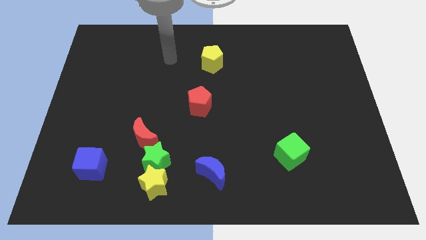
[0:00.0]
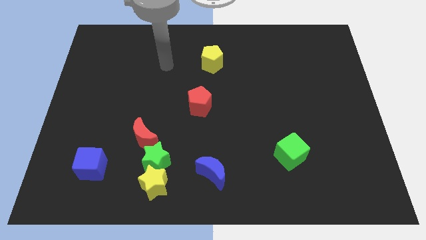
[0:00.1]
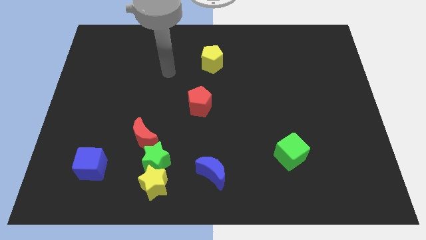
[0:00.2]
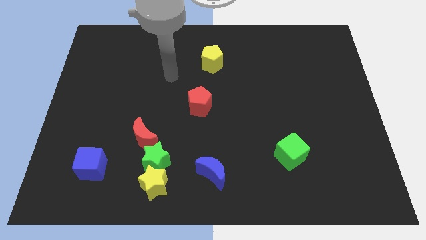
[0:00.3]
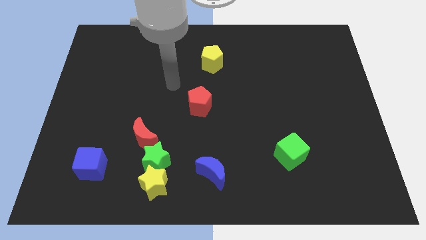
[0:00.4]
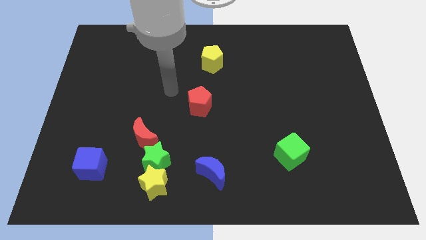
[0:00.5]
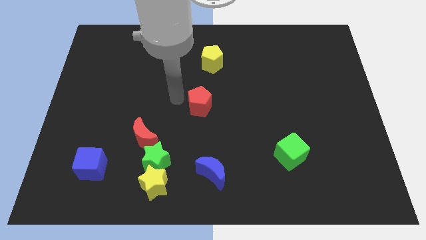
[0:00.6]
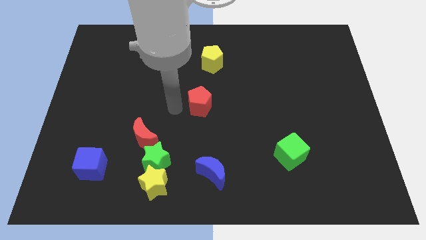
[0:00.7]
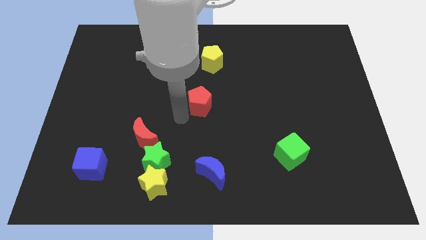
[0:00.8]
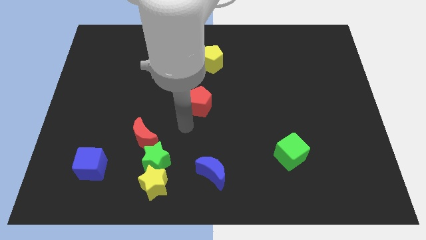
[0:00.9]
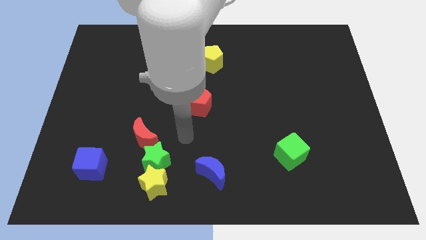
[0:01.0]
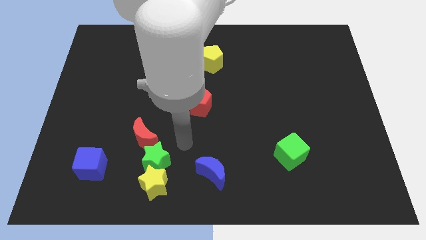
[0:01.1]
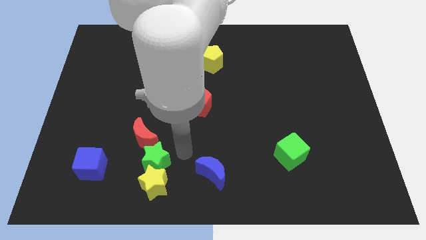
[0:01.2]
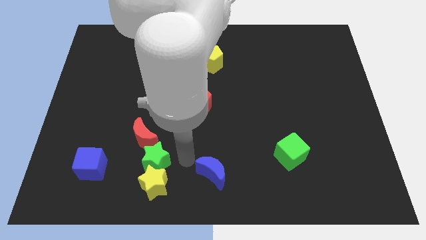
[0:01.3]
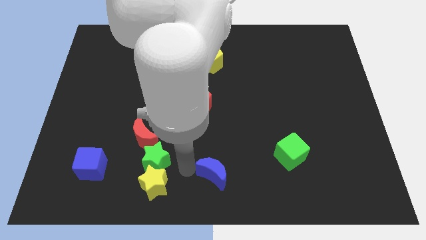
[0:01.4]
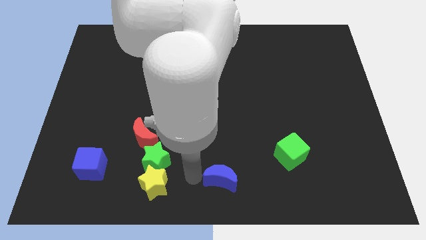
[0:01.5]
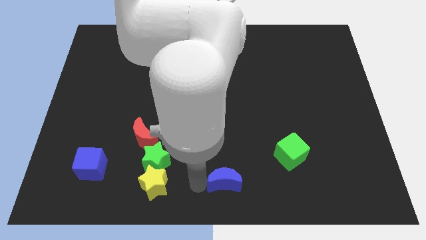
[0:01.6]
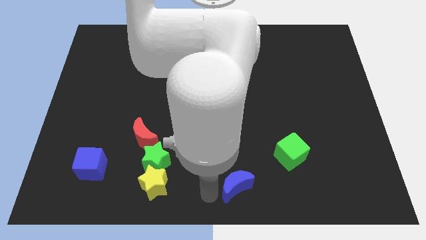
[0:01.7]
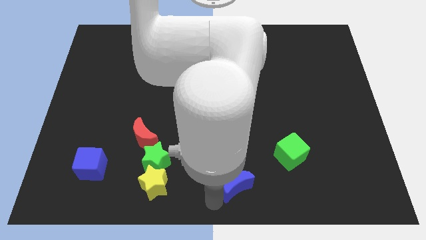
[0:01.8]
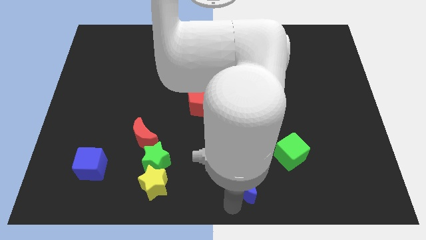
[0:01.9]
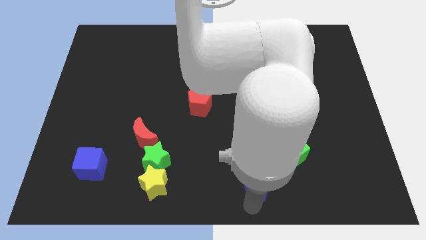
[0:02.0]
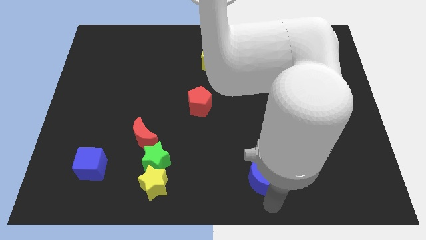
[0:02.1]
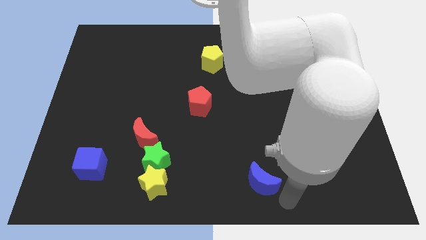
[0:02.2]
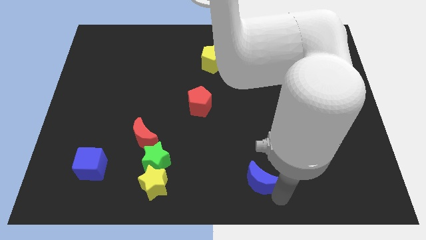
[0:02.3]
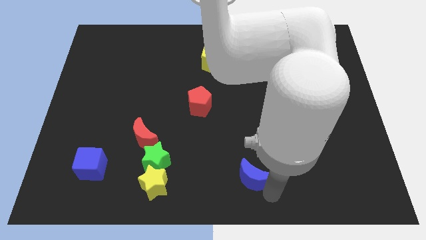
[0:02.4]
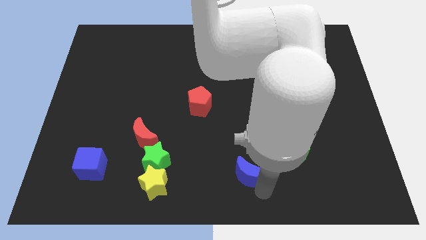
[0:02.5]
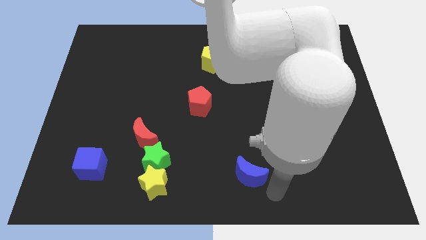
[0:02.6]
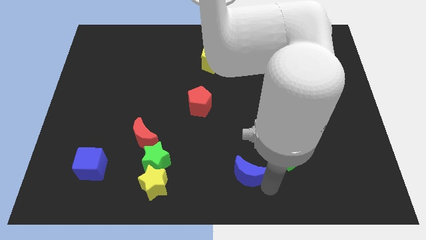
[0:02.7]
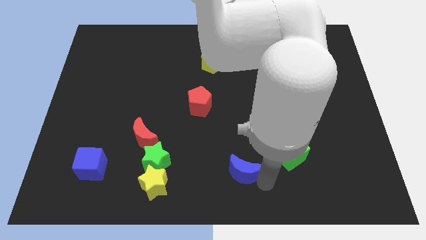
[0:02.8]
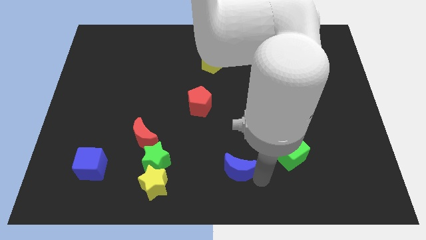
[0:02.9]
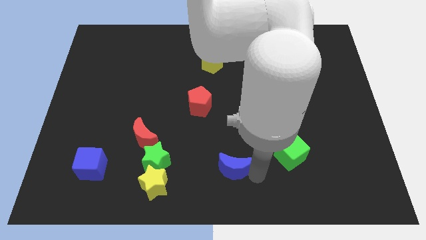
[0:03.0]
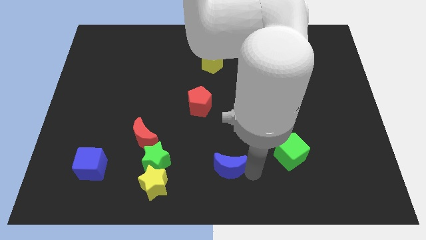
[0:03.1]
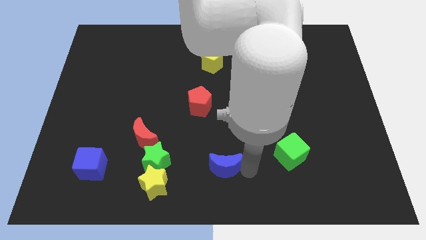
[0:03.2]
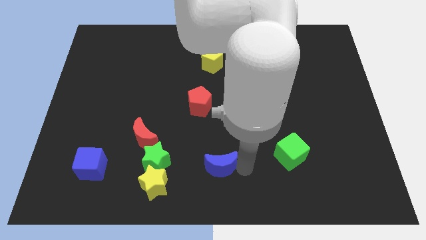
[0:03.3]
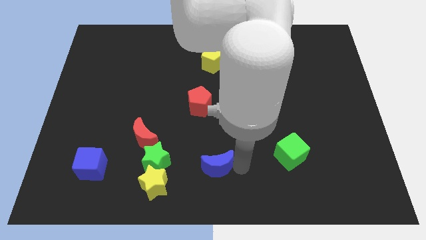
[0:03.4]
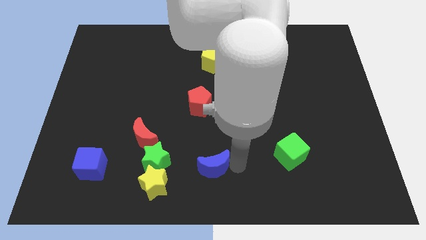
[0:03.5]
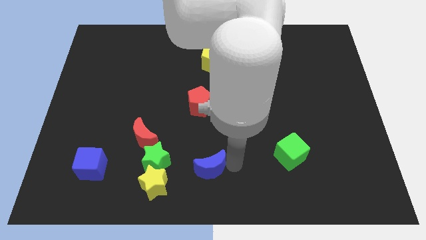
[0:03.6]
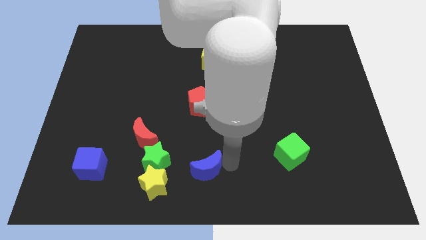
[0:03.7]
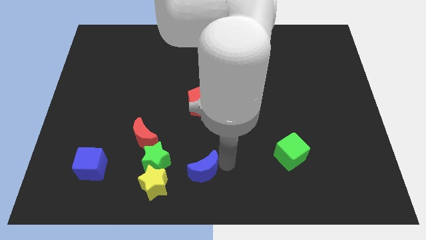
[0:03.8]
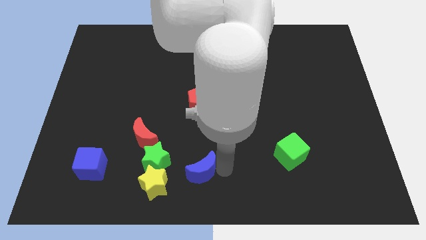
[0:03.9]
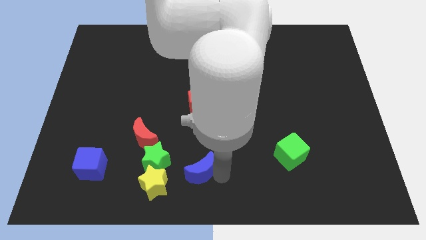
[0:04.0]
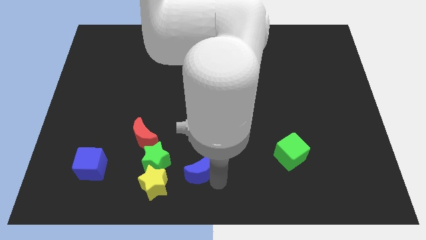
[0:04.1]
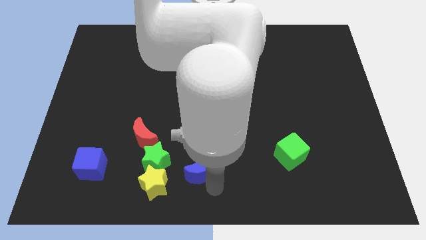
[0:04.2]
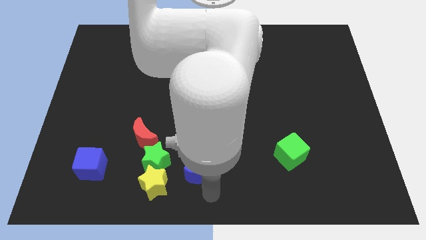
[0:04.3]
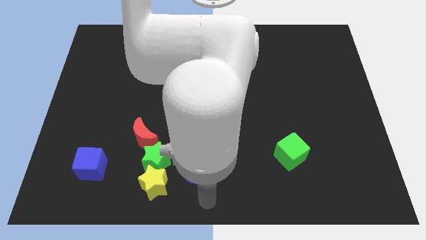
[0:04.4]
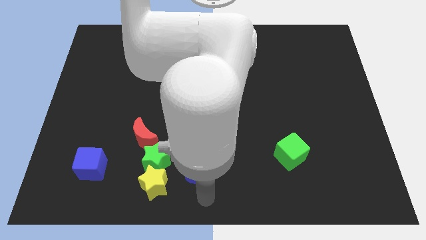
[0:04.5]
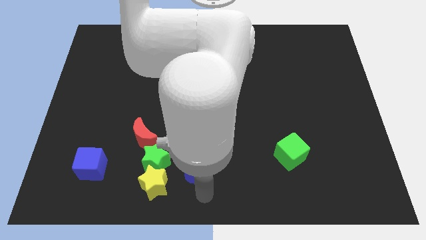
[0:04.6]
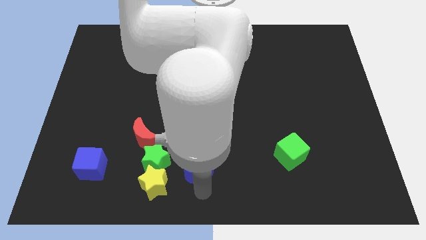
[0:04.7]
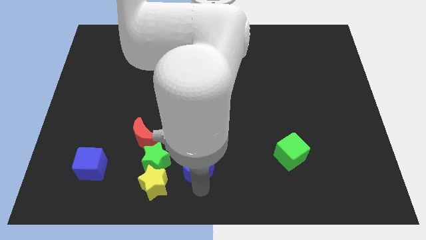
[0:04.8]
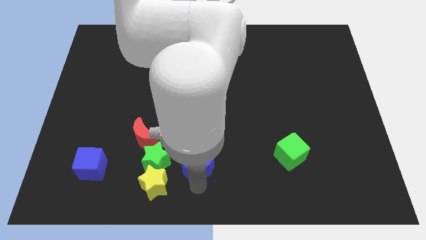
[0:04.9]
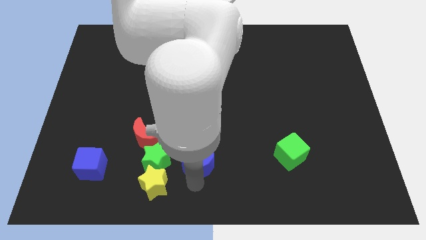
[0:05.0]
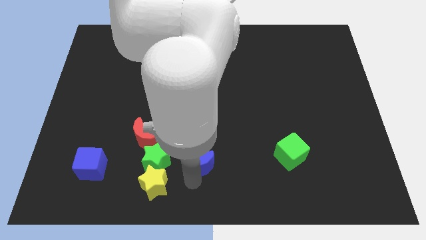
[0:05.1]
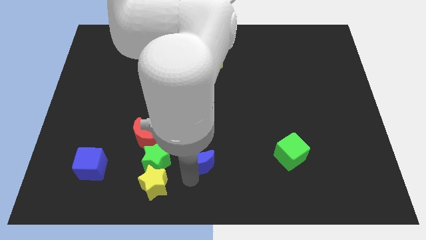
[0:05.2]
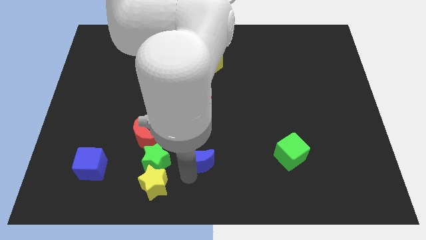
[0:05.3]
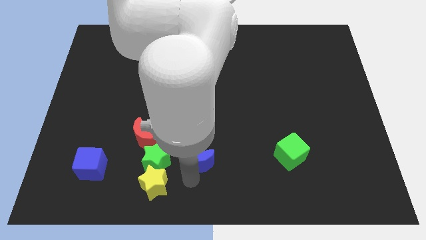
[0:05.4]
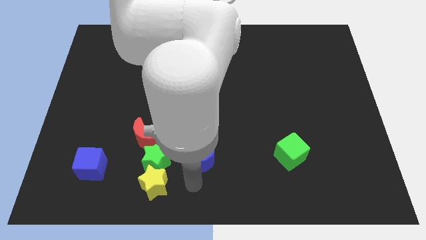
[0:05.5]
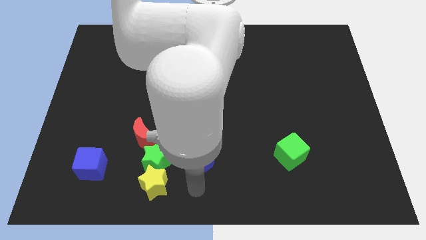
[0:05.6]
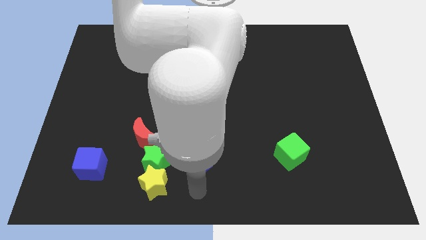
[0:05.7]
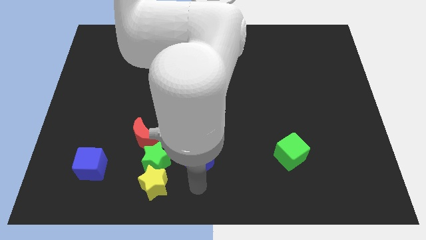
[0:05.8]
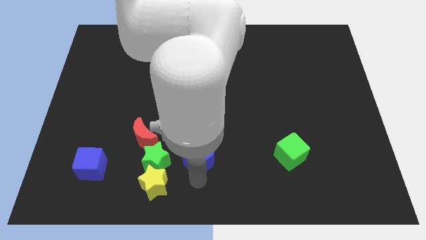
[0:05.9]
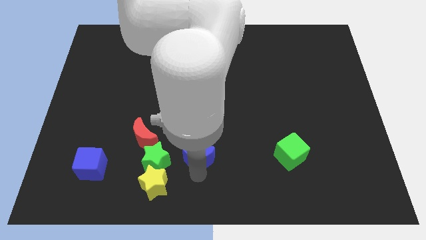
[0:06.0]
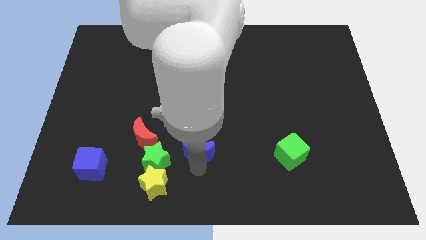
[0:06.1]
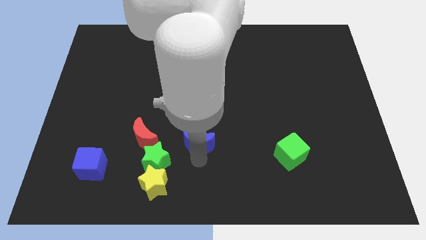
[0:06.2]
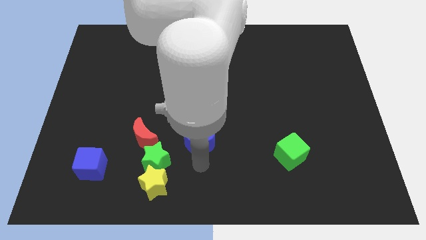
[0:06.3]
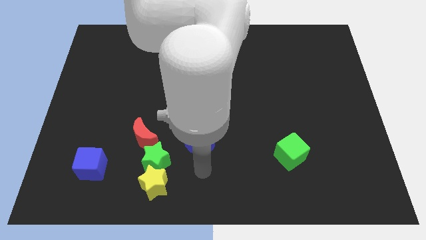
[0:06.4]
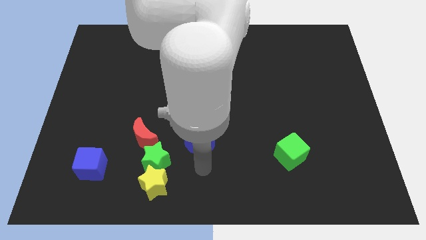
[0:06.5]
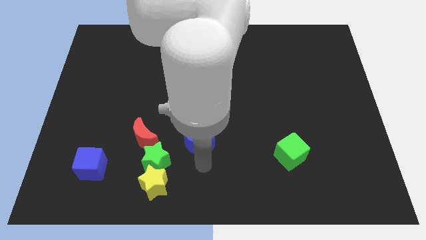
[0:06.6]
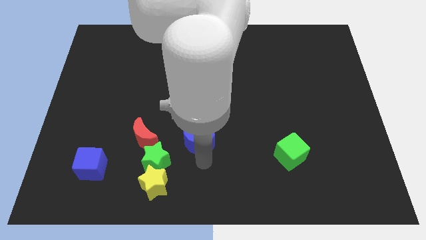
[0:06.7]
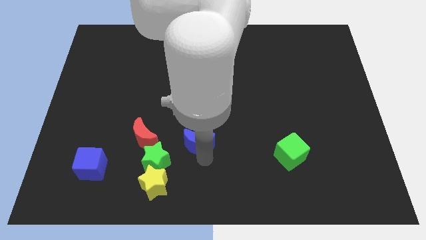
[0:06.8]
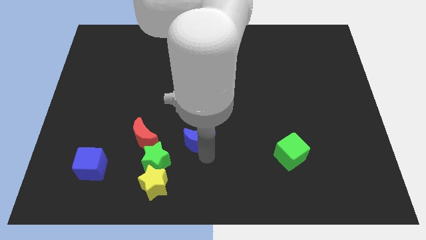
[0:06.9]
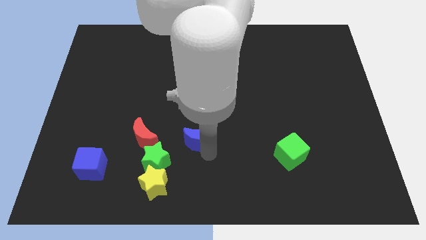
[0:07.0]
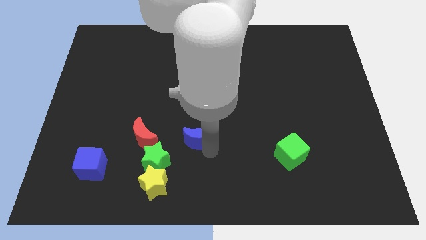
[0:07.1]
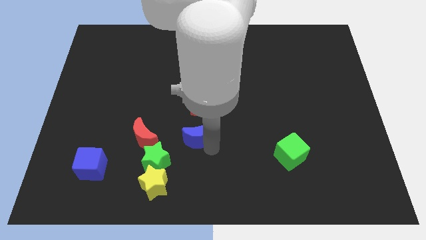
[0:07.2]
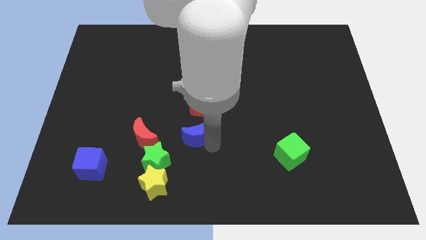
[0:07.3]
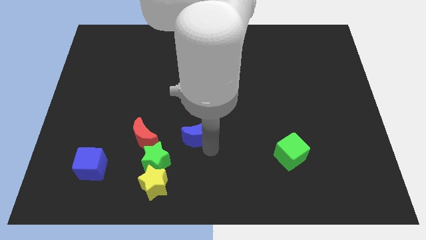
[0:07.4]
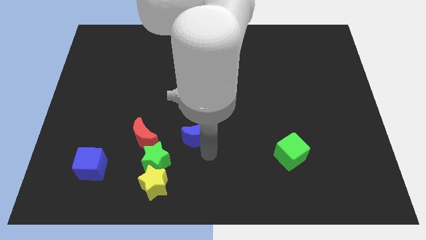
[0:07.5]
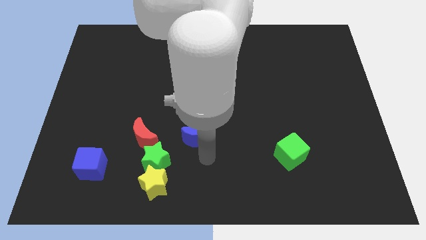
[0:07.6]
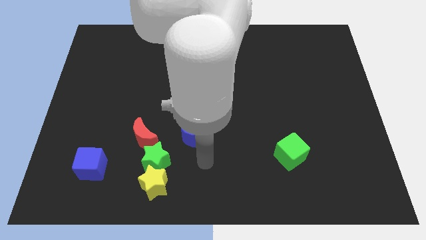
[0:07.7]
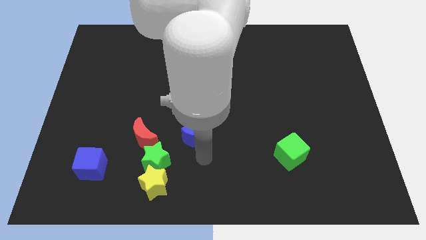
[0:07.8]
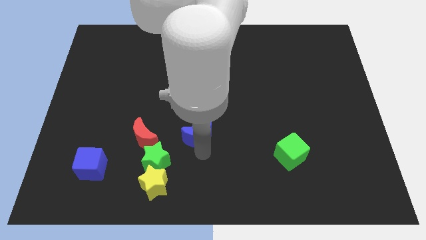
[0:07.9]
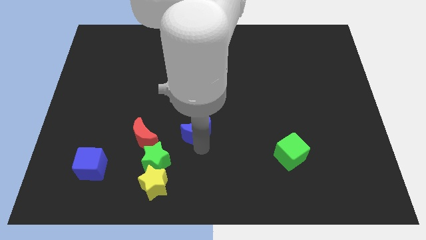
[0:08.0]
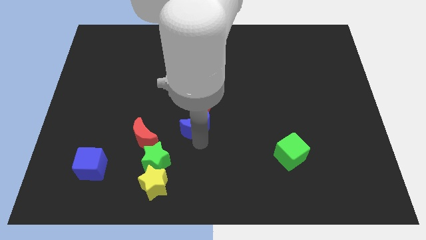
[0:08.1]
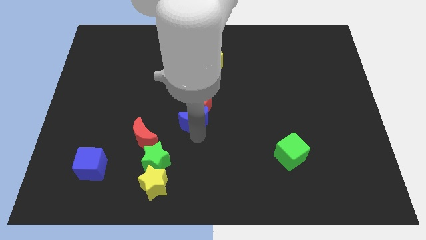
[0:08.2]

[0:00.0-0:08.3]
put the blue moon to the red pentagon
